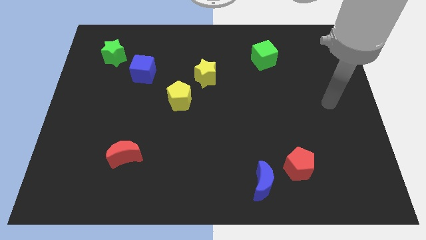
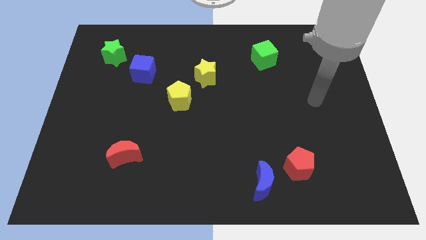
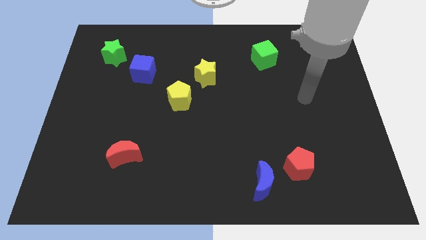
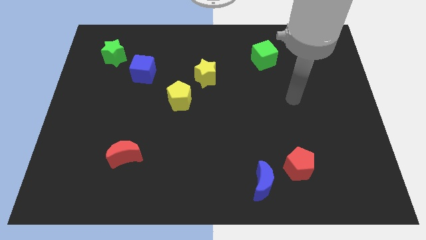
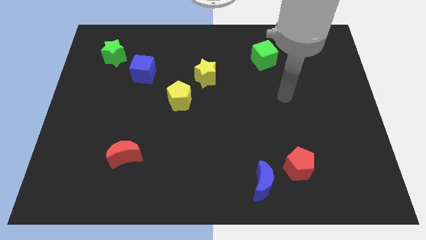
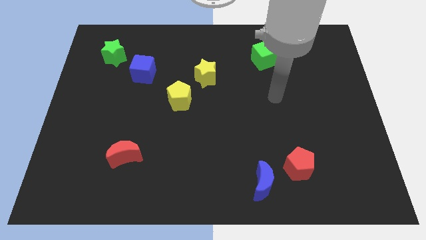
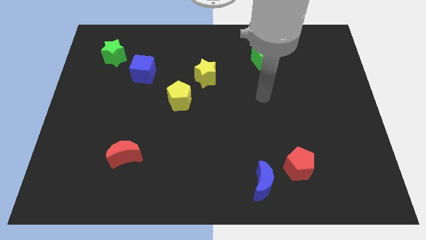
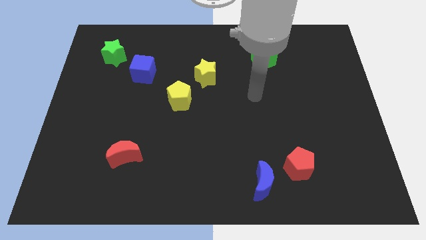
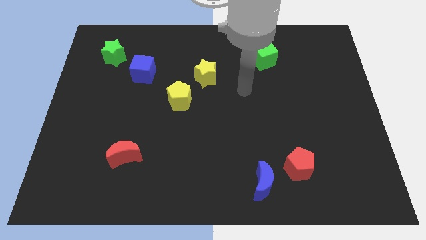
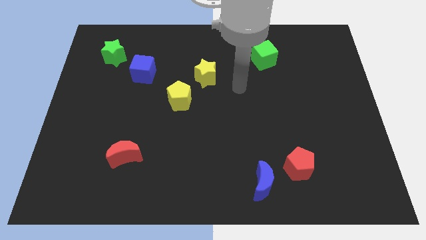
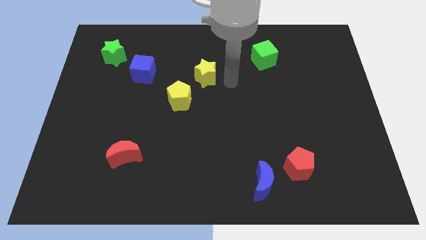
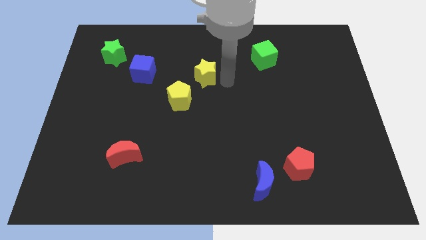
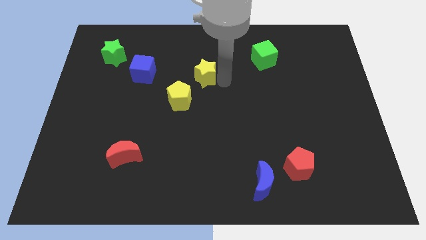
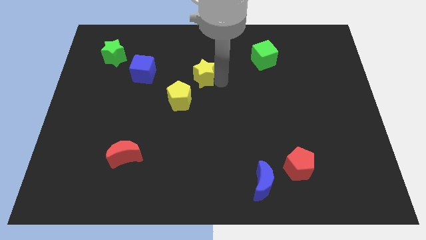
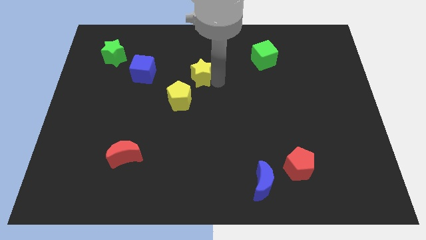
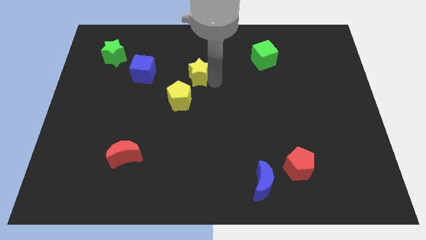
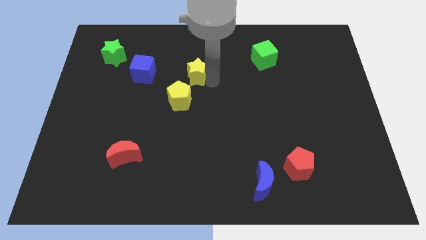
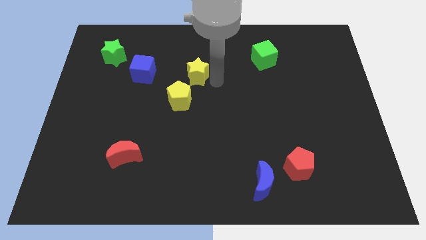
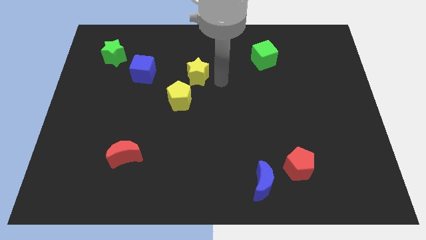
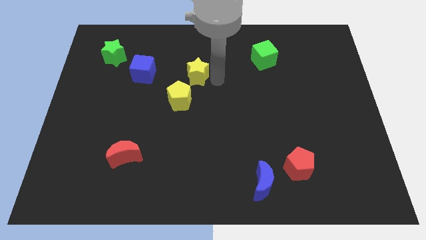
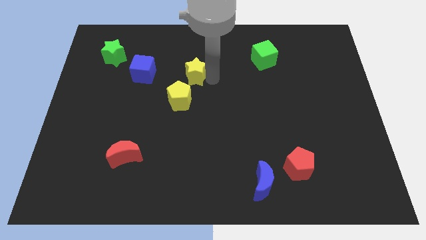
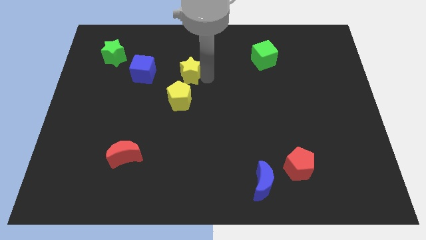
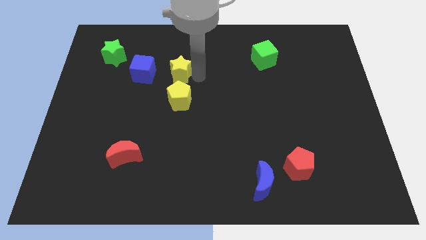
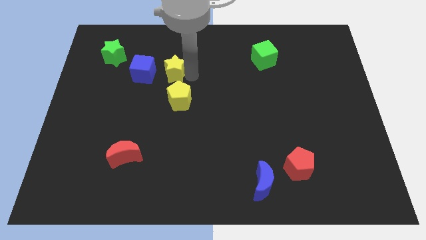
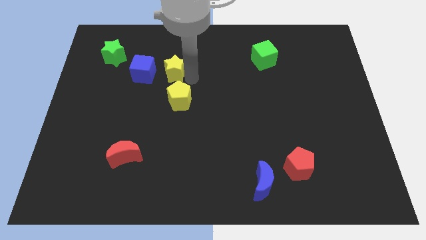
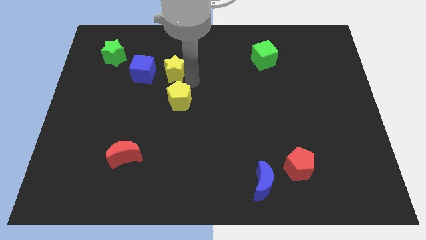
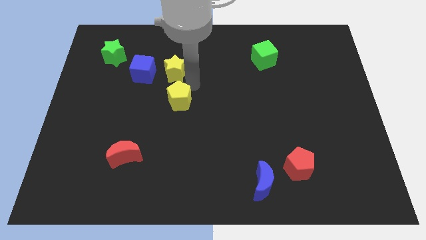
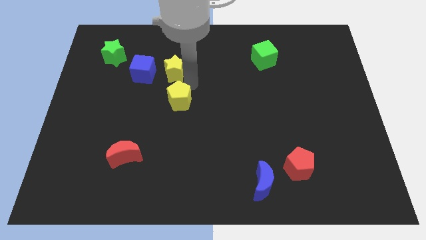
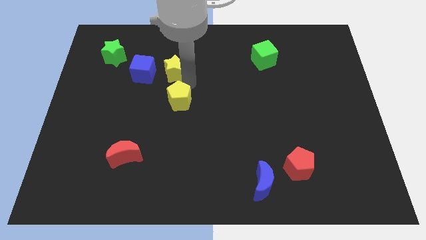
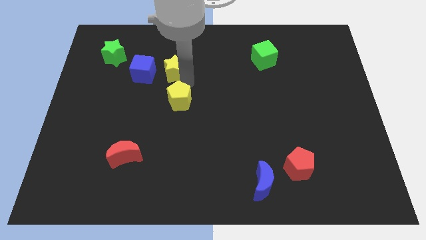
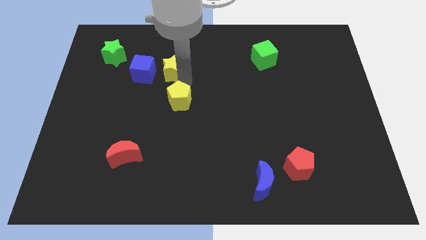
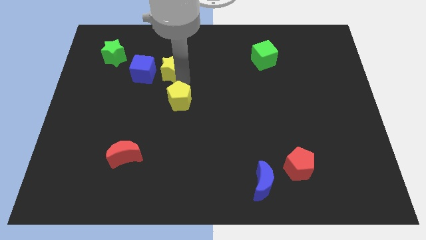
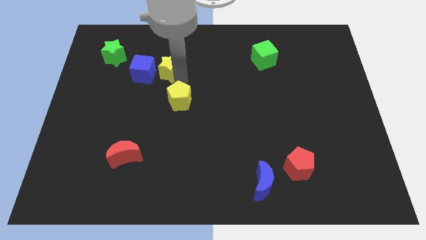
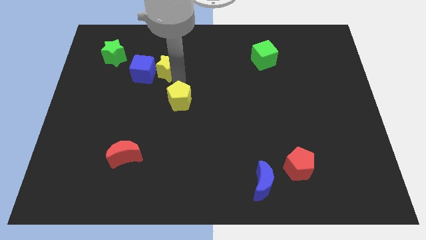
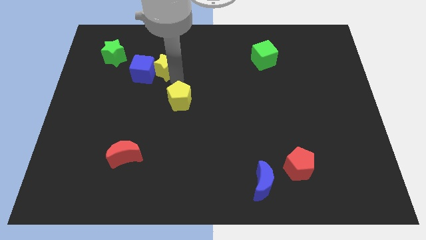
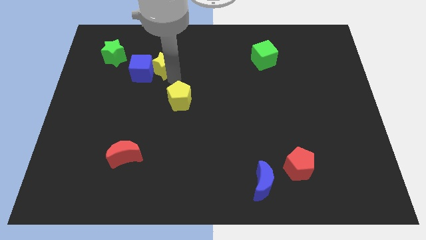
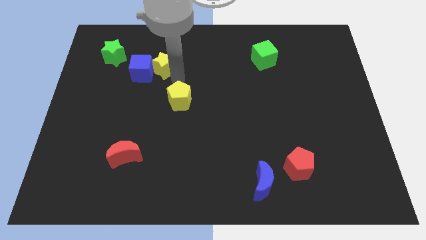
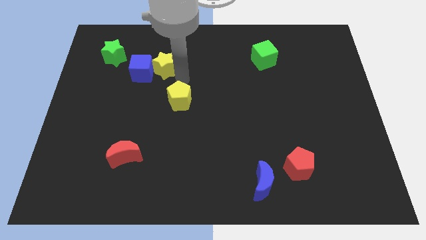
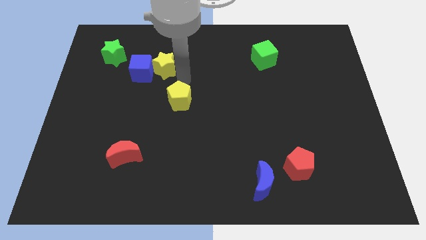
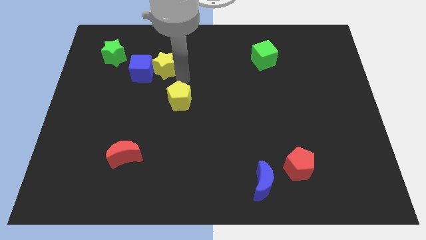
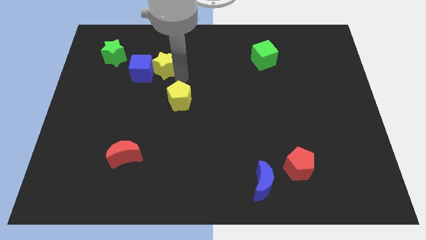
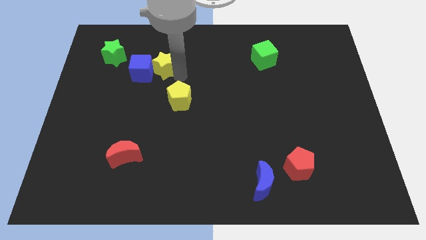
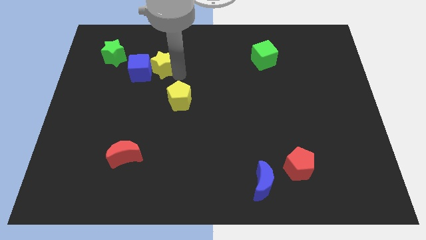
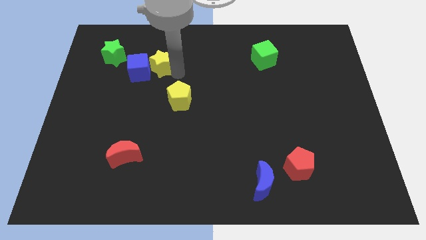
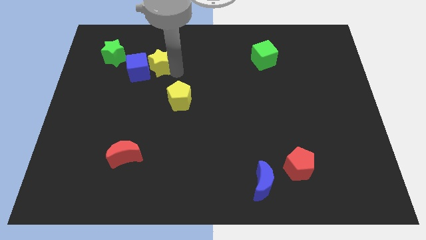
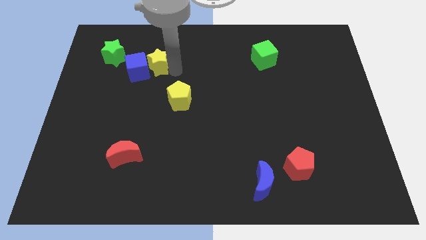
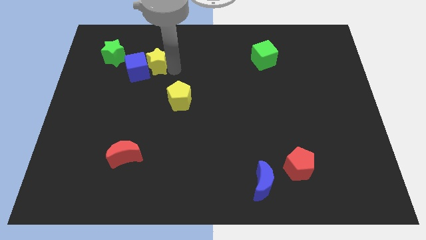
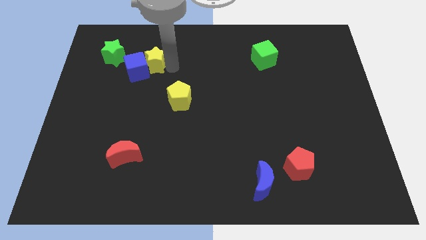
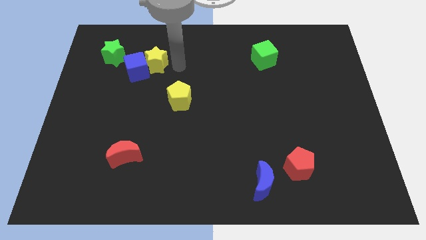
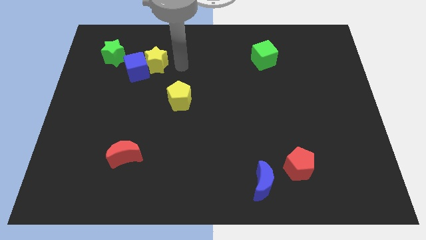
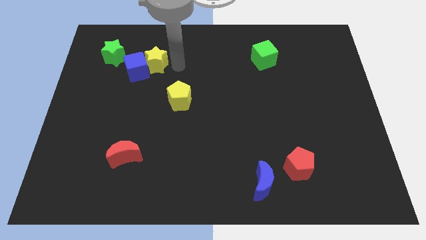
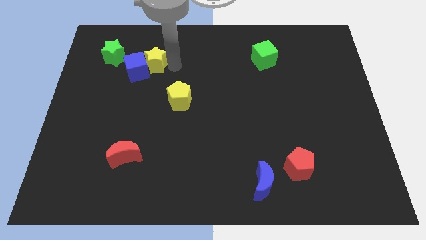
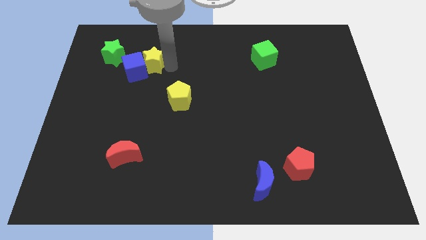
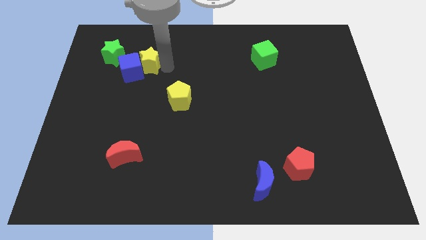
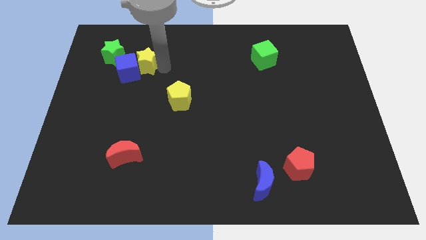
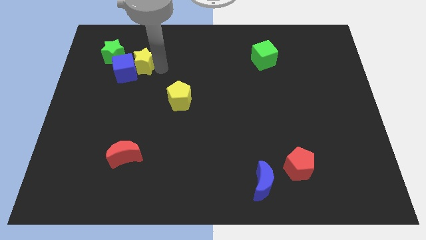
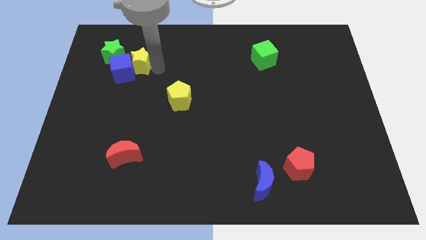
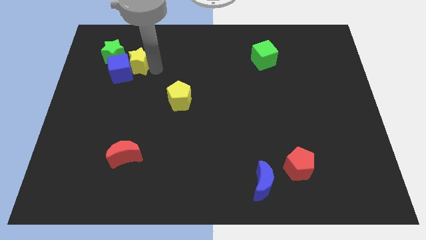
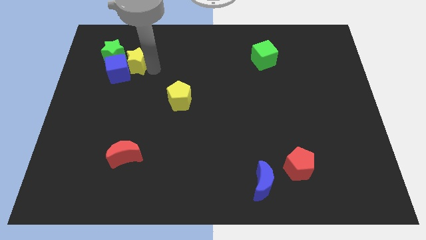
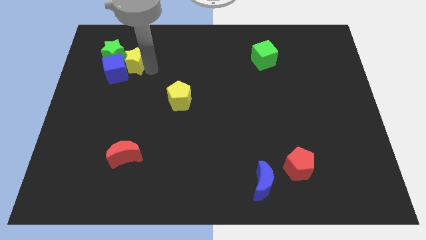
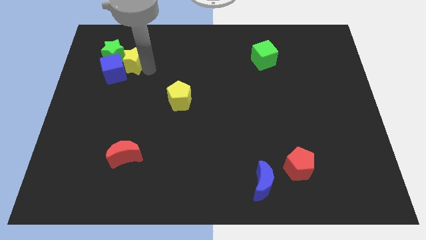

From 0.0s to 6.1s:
put the yellow star to the green star

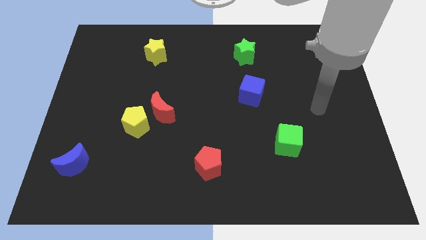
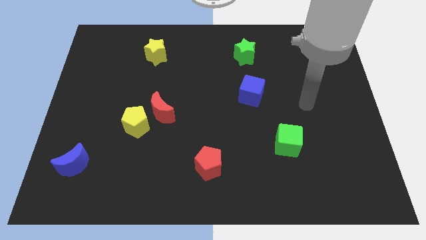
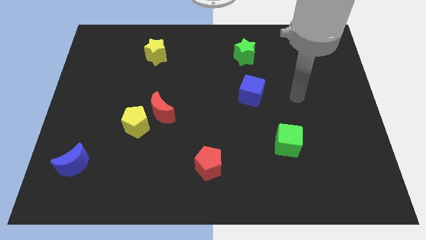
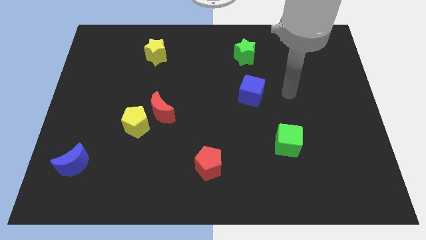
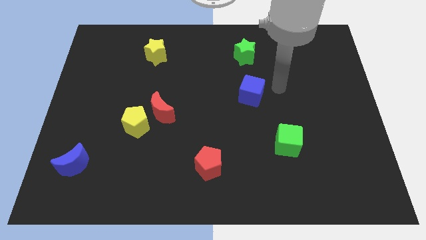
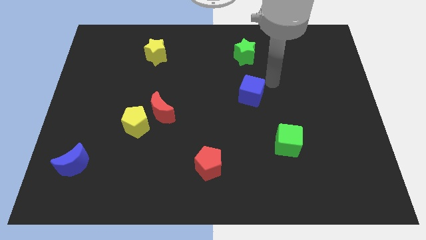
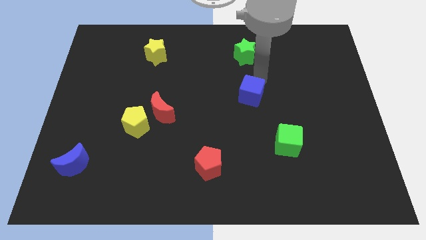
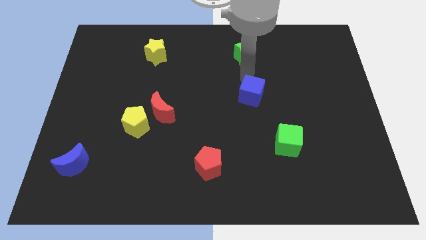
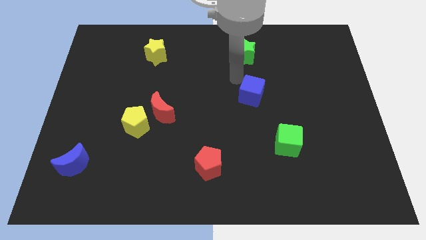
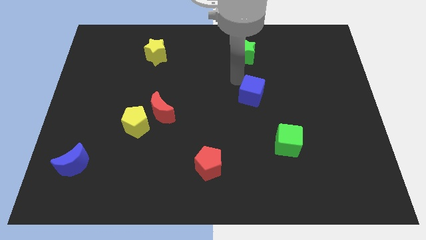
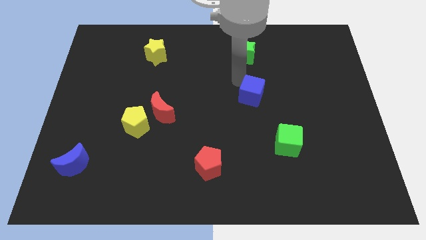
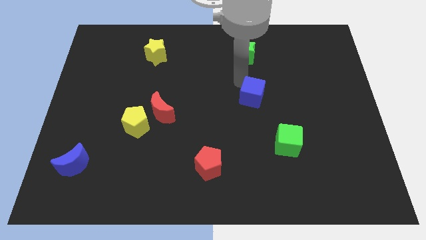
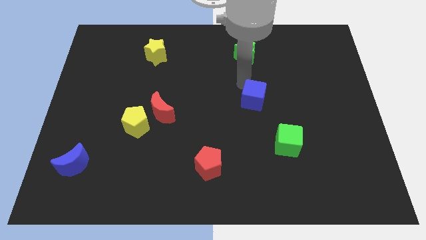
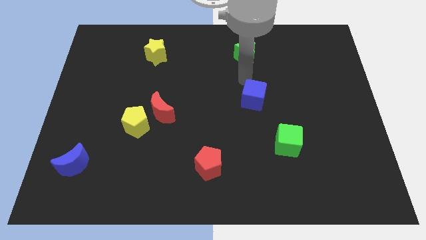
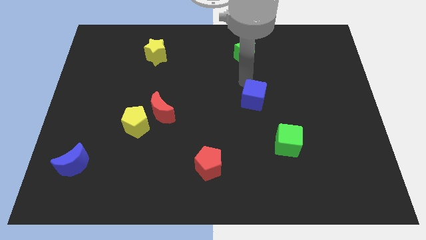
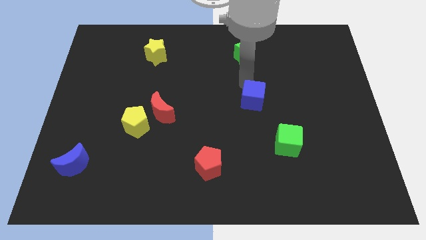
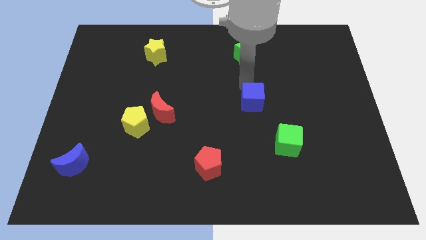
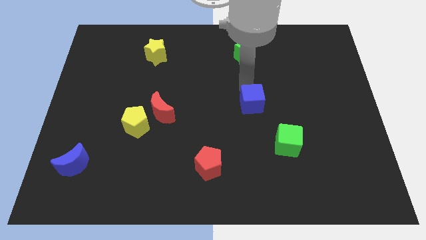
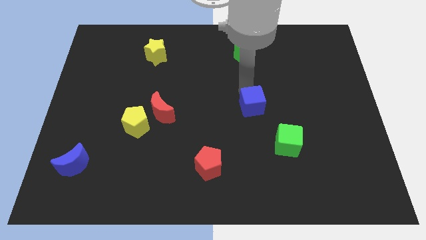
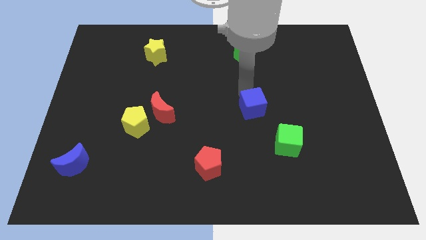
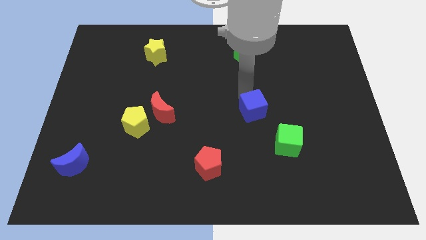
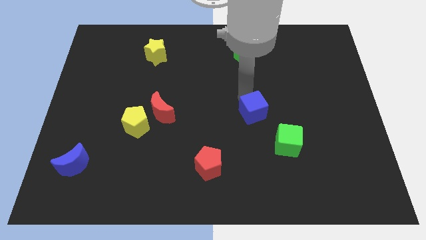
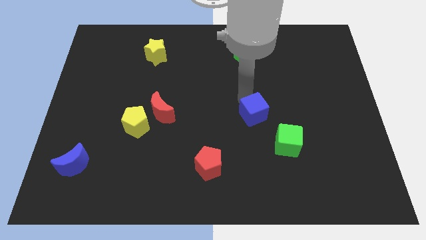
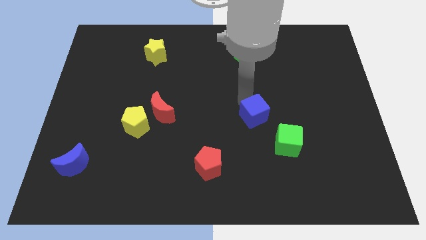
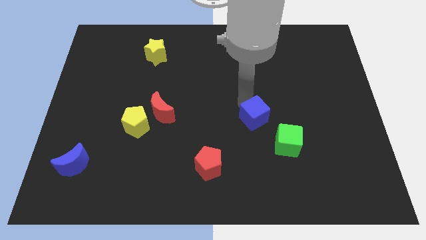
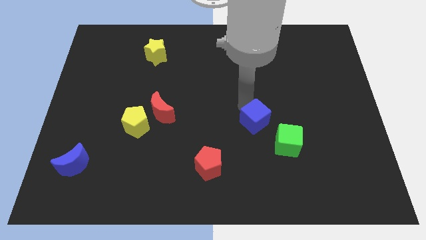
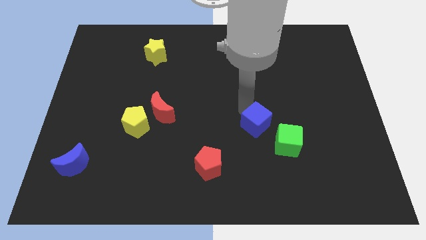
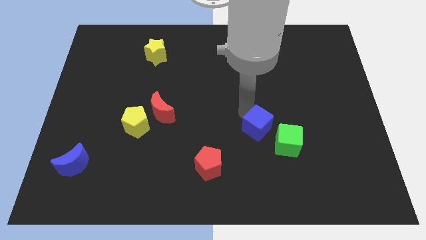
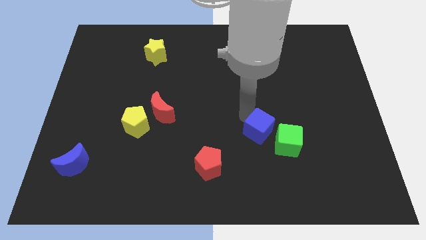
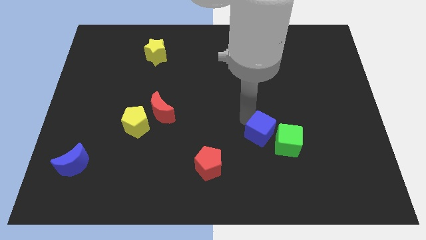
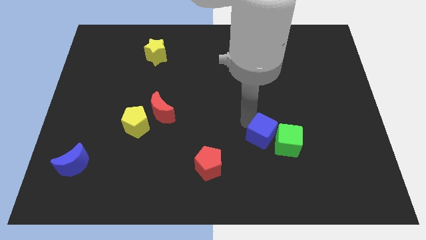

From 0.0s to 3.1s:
slide the blue cube towards the green cube
